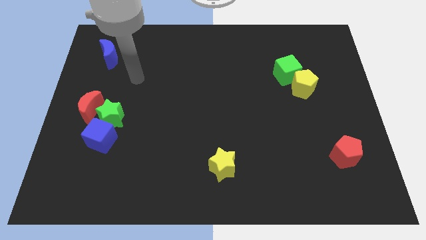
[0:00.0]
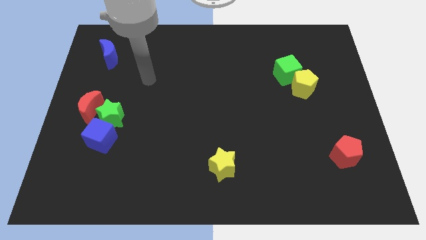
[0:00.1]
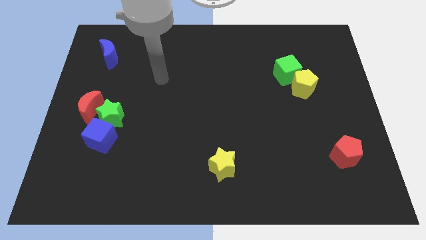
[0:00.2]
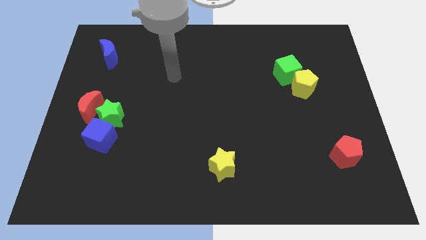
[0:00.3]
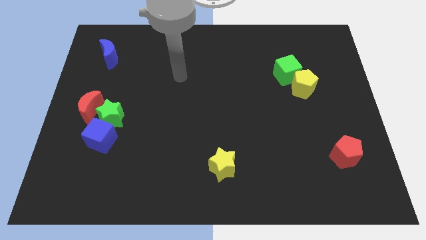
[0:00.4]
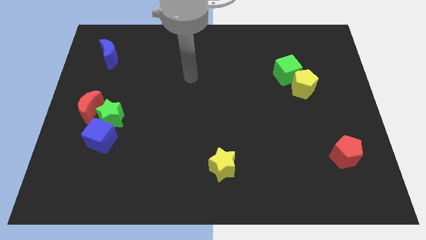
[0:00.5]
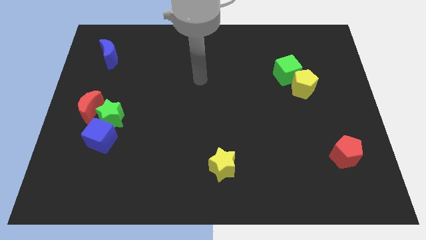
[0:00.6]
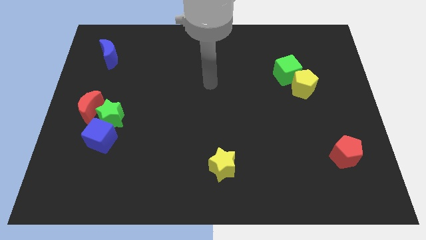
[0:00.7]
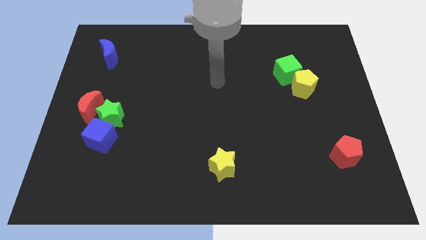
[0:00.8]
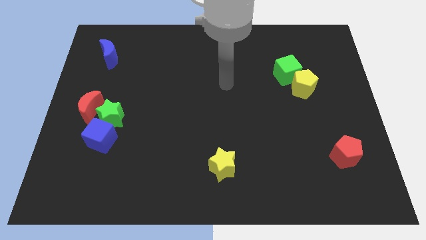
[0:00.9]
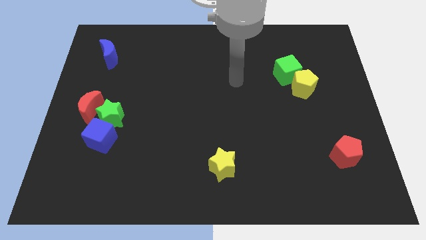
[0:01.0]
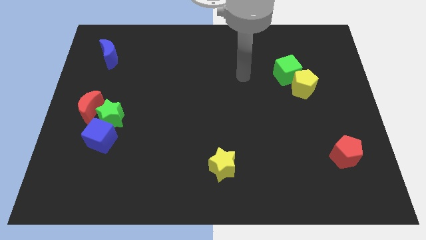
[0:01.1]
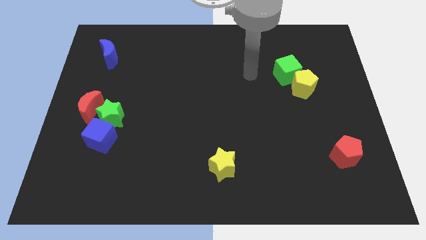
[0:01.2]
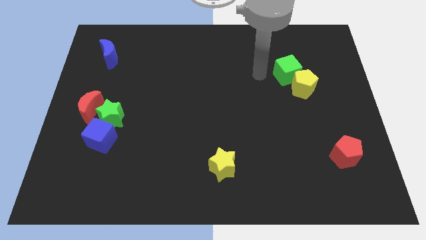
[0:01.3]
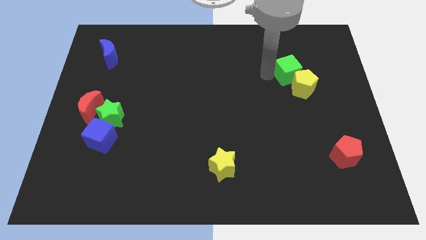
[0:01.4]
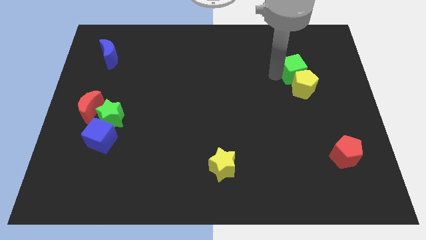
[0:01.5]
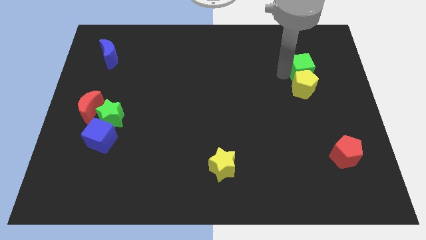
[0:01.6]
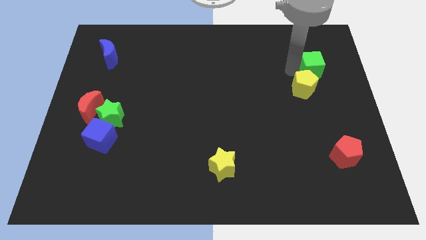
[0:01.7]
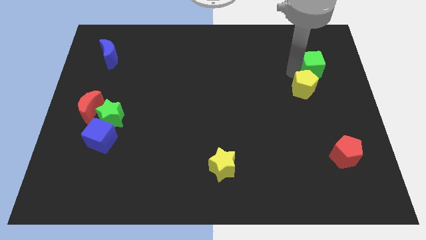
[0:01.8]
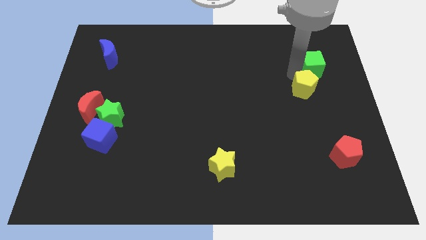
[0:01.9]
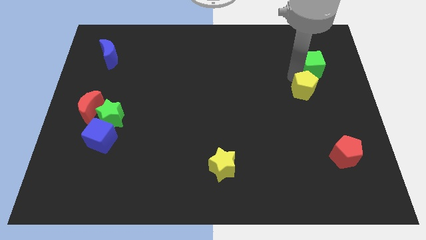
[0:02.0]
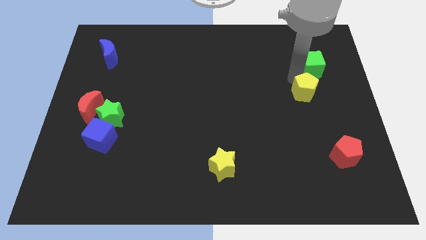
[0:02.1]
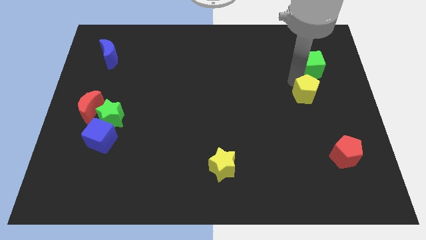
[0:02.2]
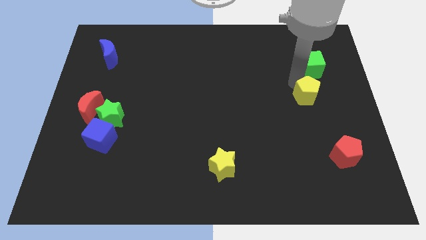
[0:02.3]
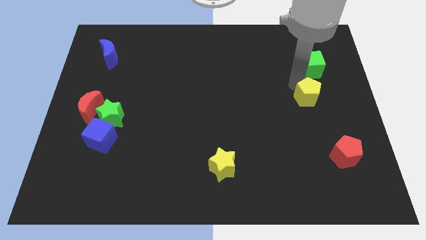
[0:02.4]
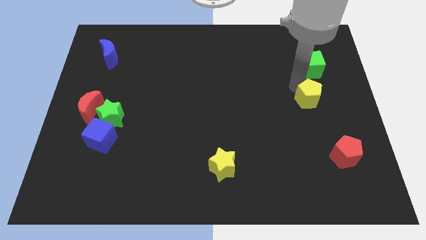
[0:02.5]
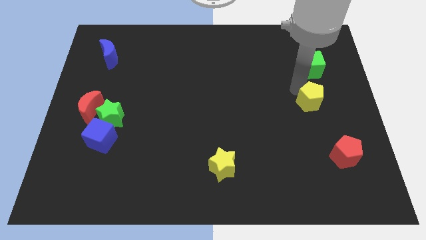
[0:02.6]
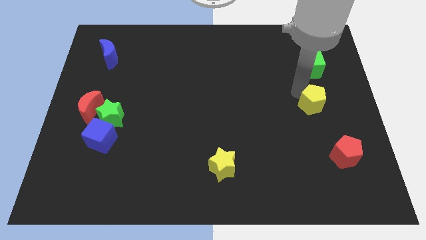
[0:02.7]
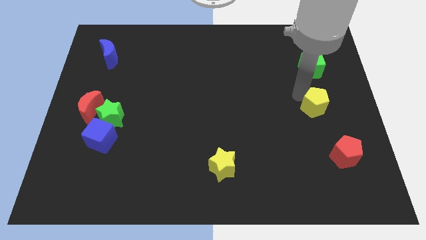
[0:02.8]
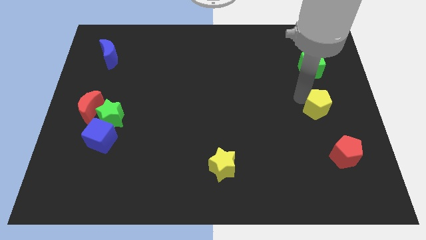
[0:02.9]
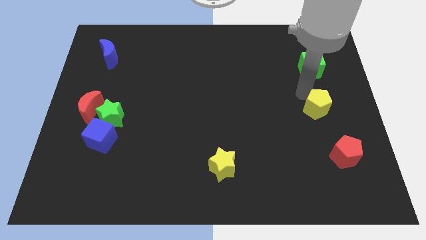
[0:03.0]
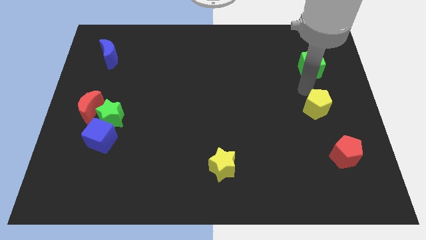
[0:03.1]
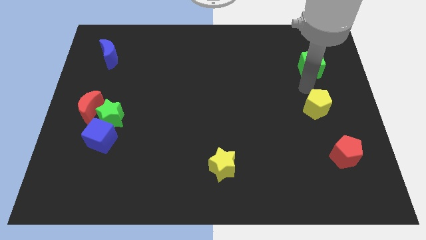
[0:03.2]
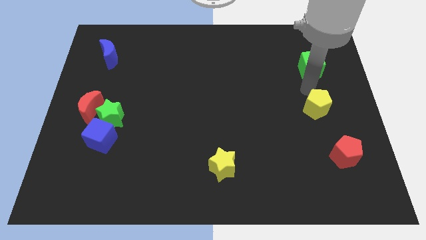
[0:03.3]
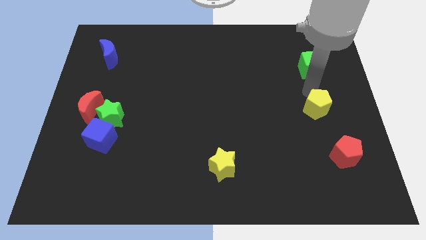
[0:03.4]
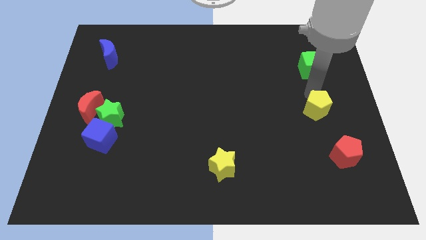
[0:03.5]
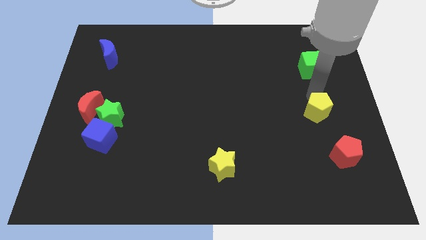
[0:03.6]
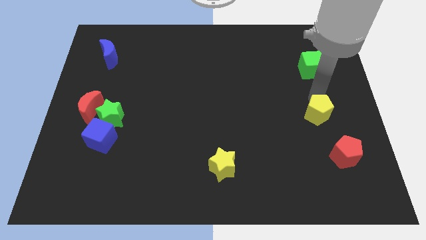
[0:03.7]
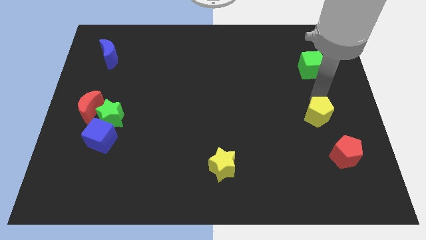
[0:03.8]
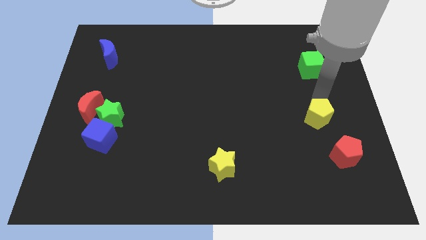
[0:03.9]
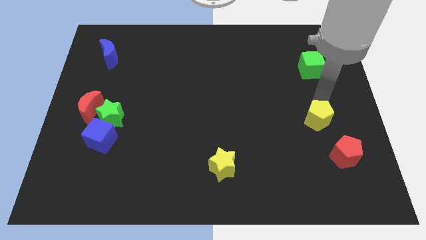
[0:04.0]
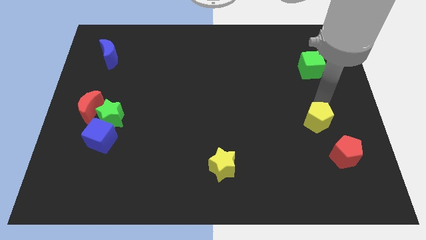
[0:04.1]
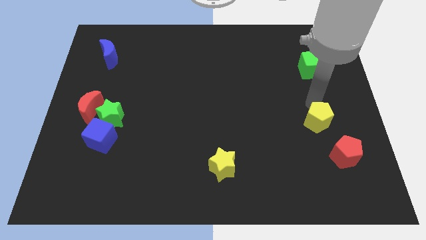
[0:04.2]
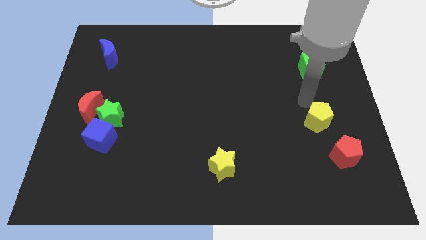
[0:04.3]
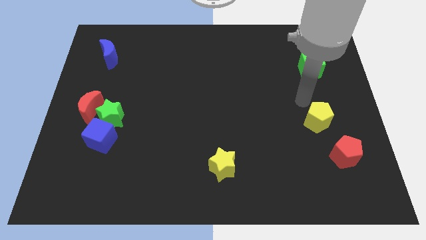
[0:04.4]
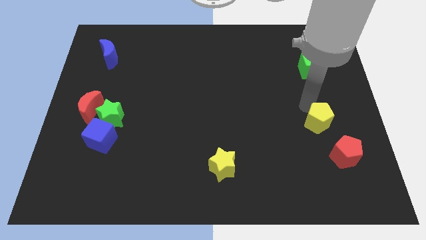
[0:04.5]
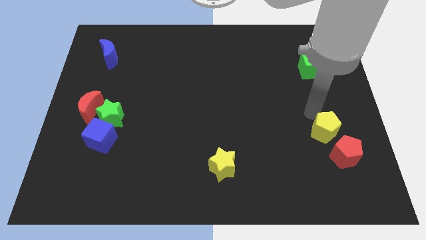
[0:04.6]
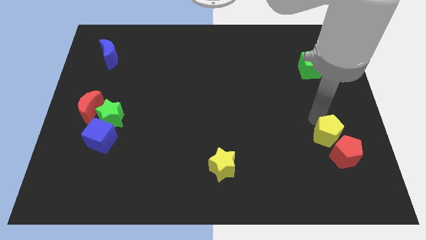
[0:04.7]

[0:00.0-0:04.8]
push the yellow pentagon next to the red pentagon

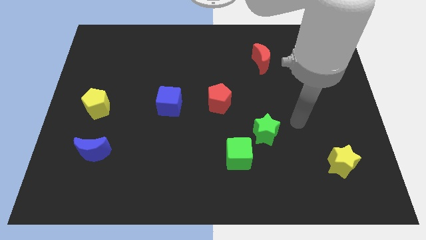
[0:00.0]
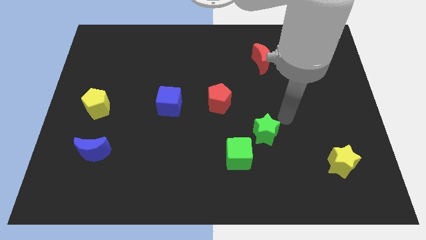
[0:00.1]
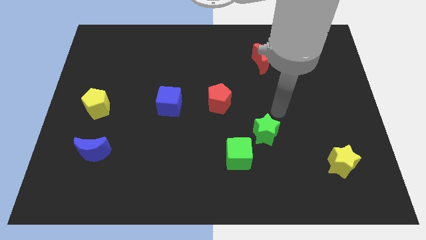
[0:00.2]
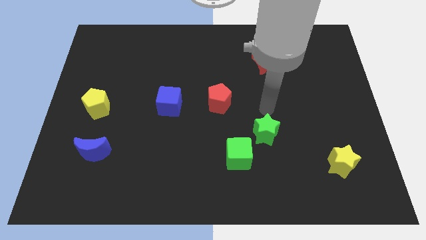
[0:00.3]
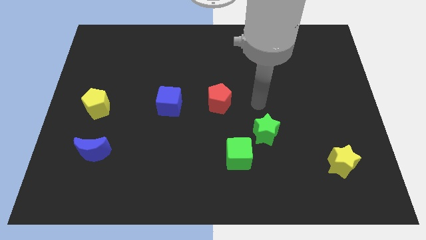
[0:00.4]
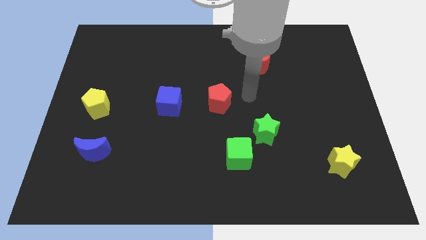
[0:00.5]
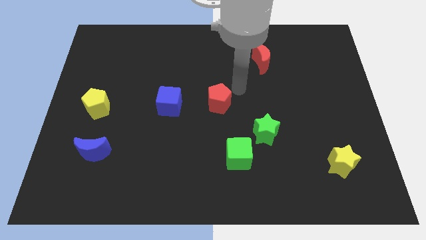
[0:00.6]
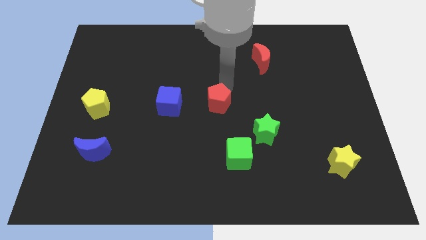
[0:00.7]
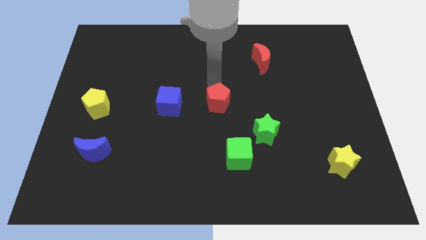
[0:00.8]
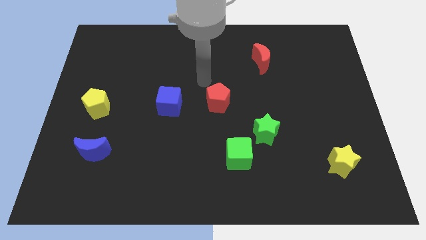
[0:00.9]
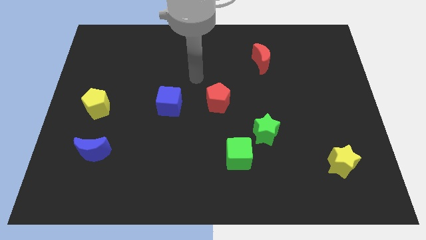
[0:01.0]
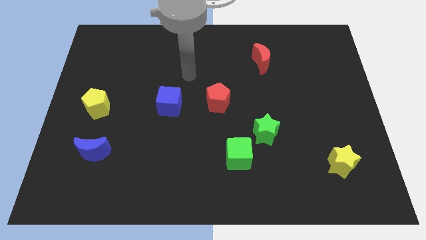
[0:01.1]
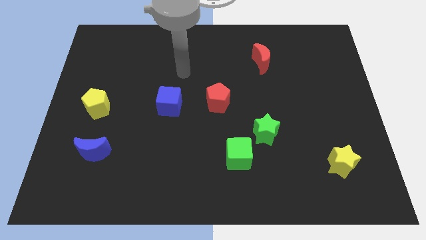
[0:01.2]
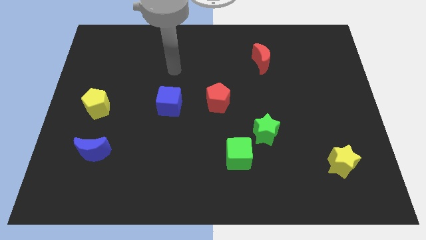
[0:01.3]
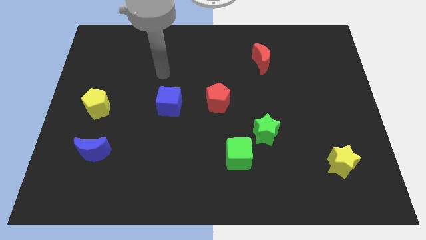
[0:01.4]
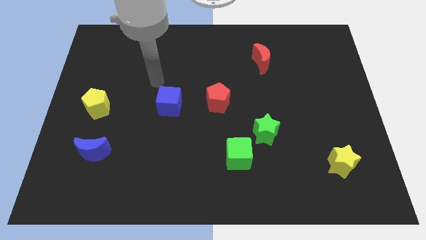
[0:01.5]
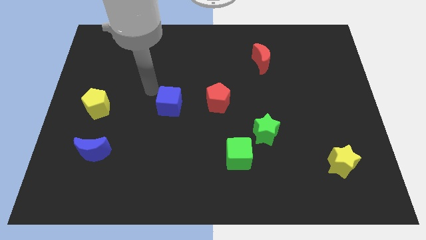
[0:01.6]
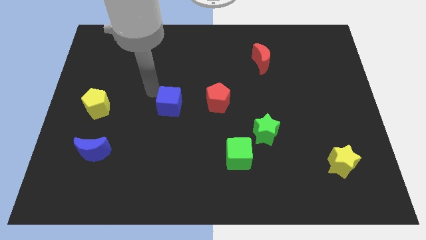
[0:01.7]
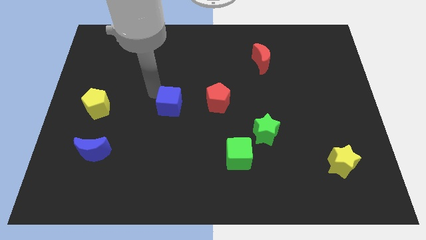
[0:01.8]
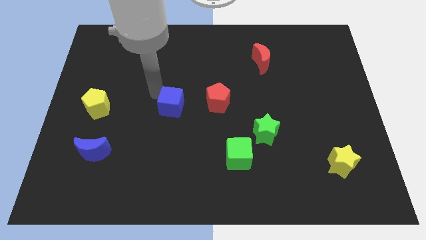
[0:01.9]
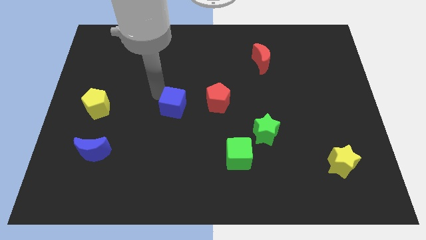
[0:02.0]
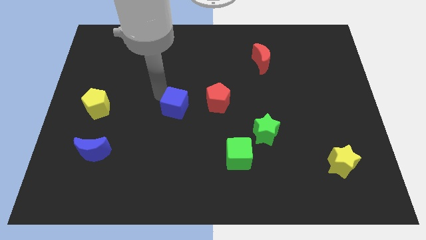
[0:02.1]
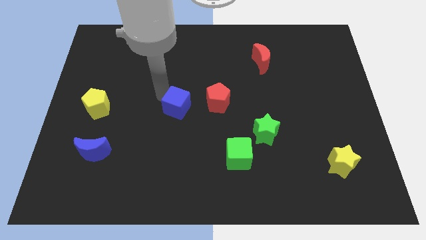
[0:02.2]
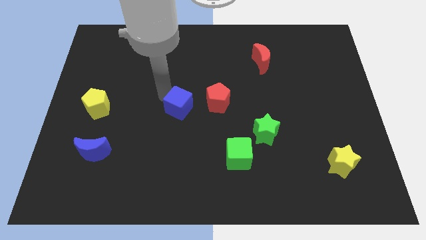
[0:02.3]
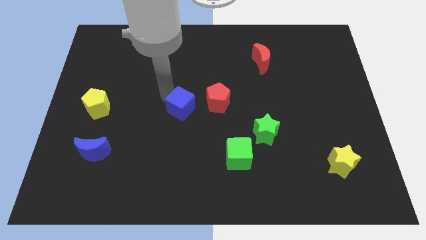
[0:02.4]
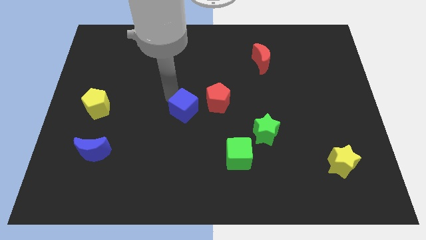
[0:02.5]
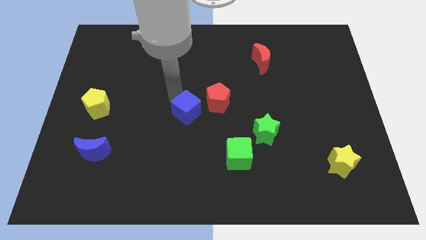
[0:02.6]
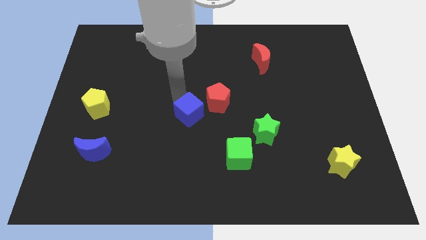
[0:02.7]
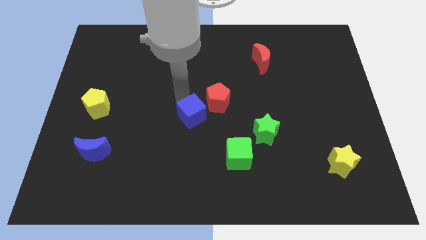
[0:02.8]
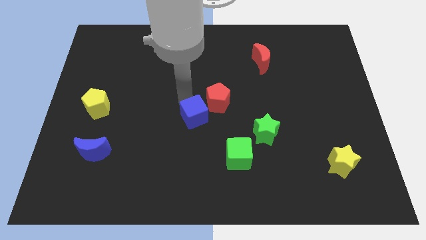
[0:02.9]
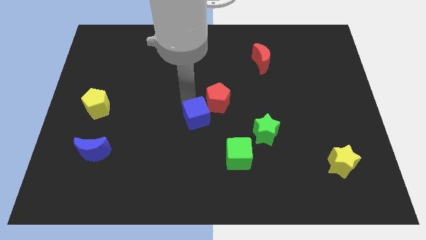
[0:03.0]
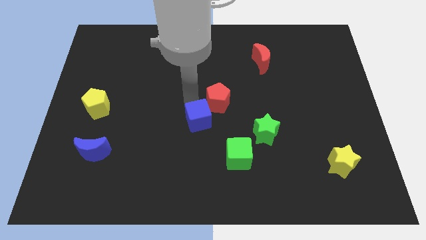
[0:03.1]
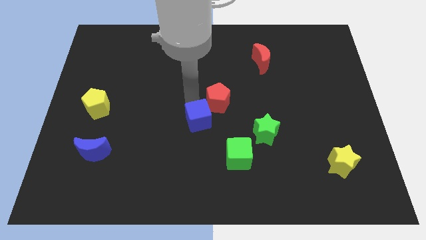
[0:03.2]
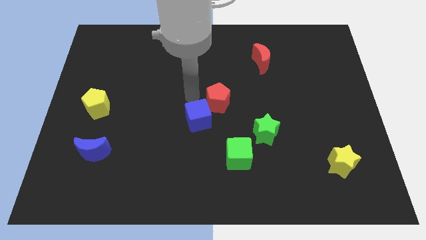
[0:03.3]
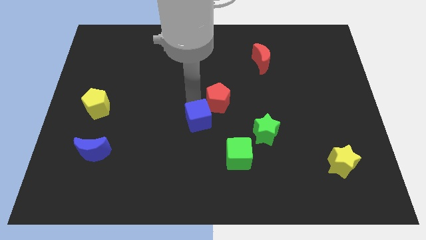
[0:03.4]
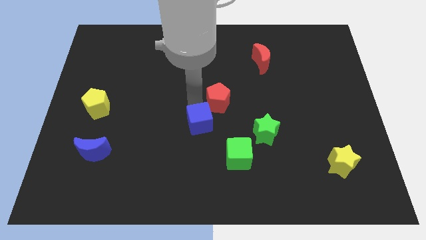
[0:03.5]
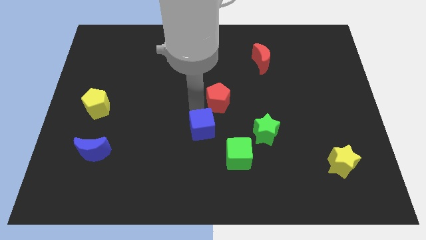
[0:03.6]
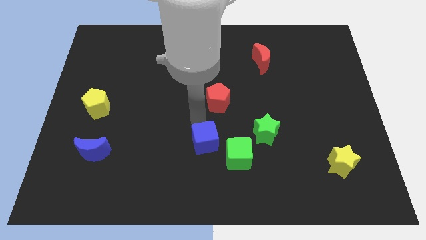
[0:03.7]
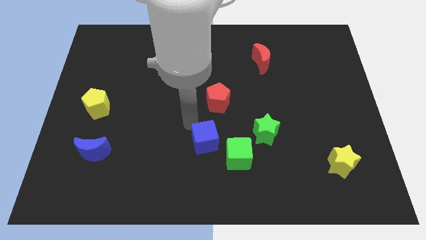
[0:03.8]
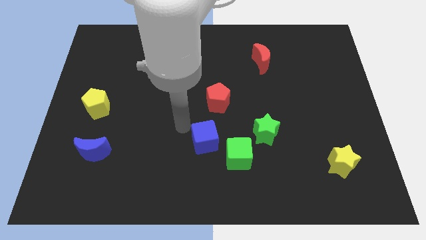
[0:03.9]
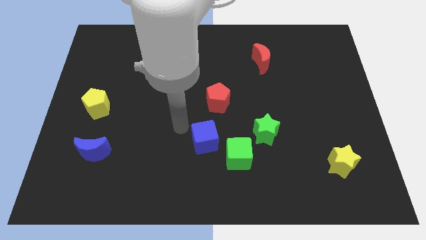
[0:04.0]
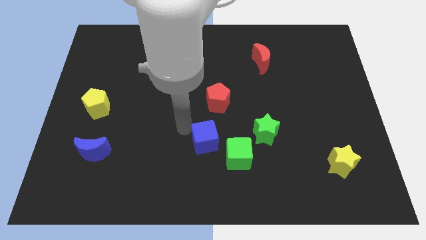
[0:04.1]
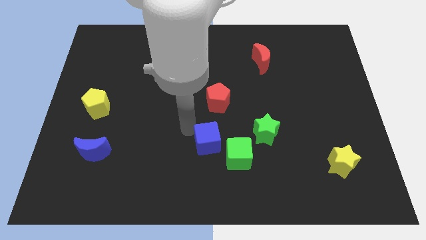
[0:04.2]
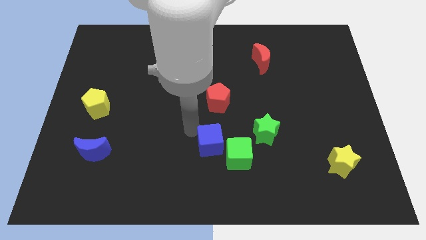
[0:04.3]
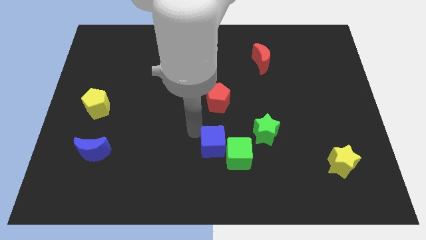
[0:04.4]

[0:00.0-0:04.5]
slide the blue cube next to the green cube
